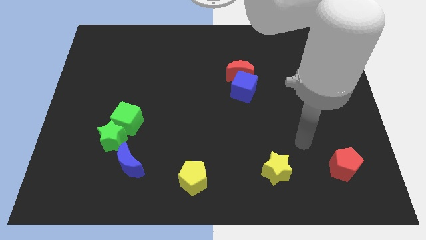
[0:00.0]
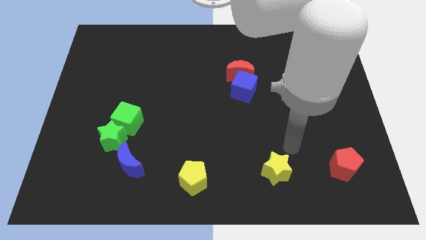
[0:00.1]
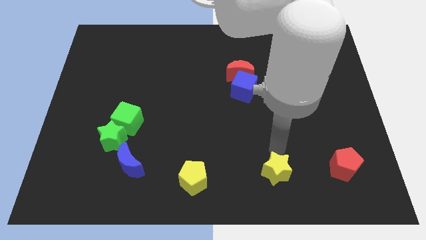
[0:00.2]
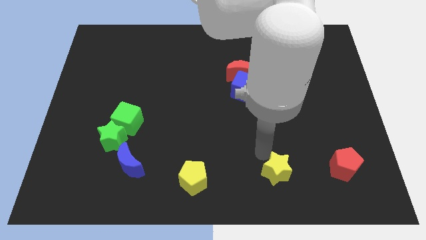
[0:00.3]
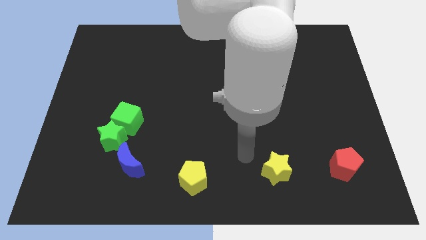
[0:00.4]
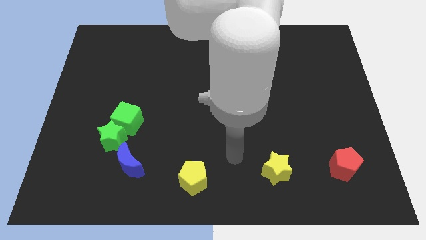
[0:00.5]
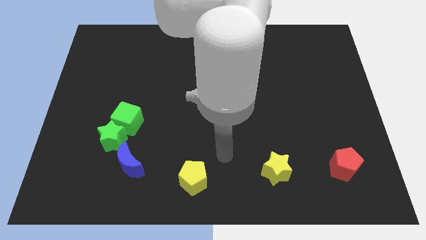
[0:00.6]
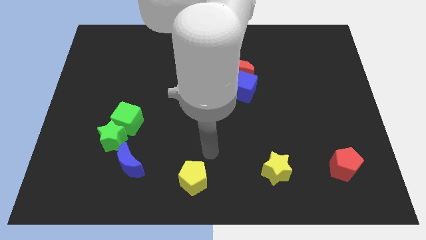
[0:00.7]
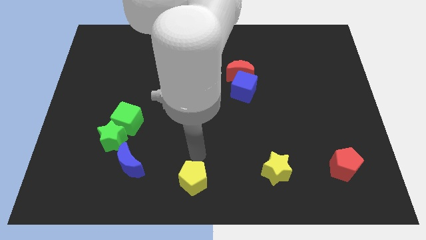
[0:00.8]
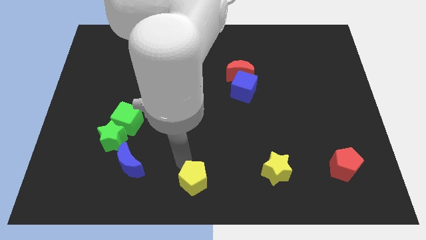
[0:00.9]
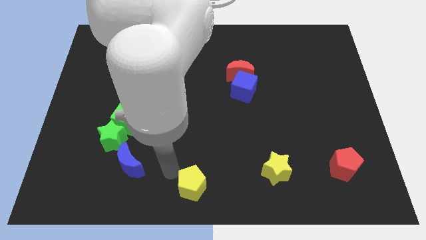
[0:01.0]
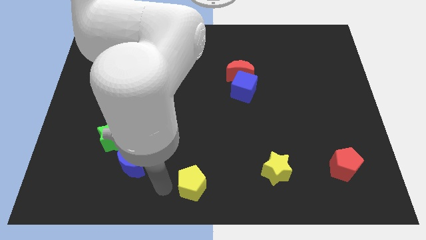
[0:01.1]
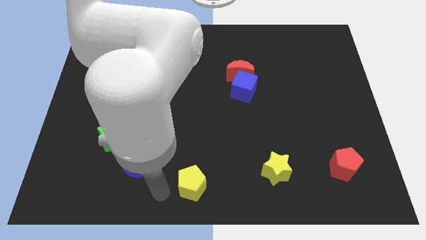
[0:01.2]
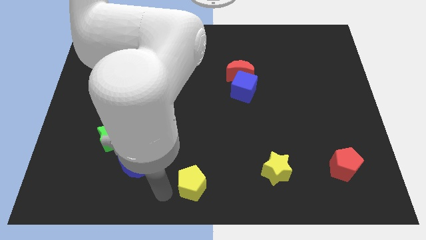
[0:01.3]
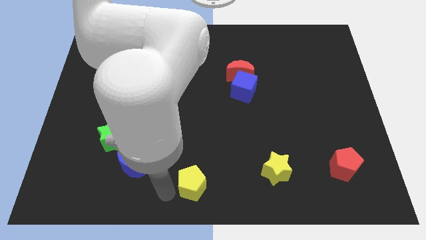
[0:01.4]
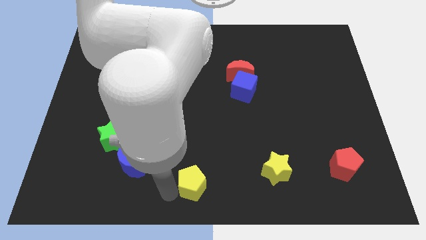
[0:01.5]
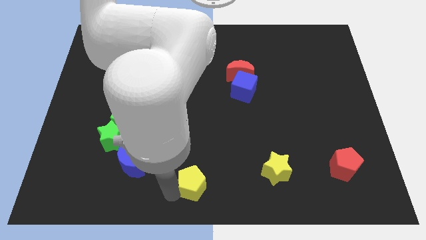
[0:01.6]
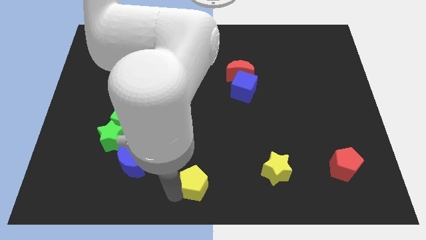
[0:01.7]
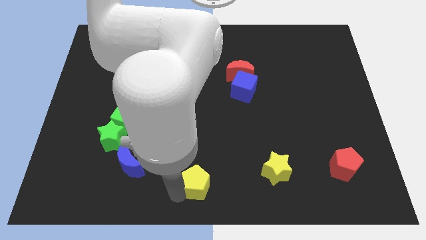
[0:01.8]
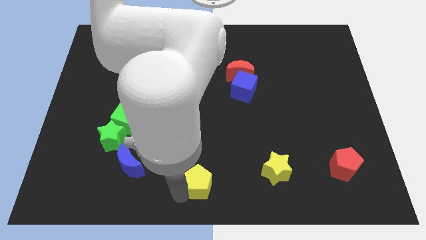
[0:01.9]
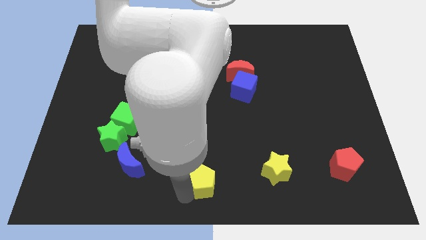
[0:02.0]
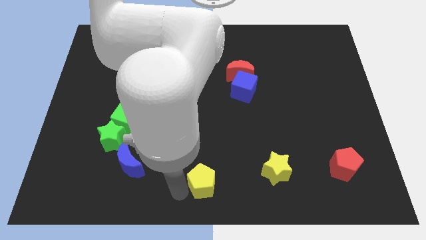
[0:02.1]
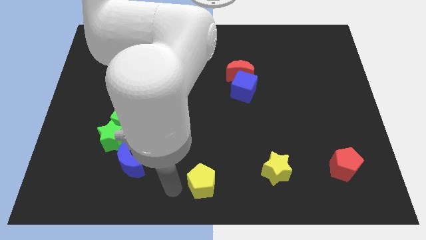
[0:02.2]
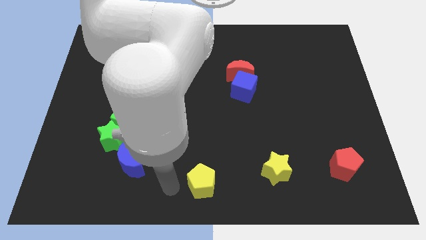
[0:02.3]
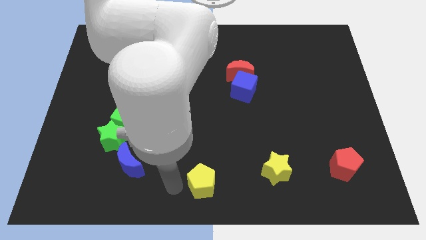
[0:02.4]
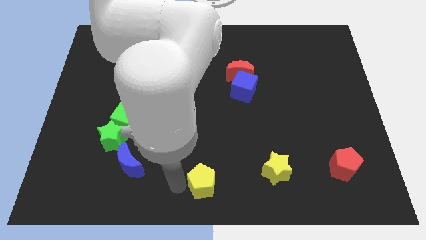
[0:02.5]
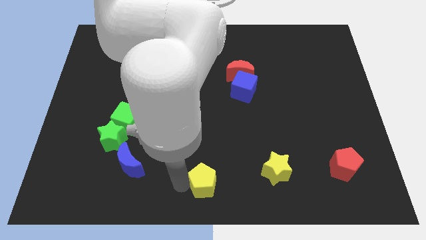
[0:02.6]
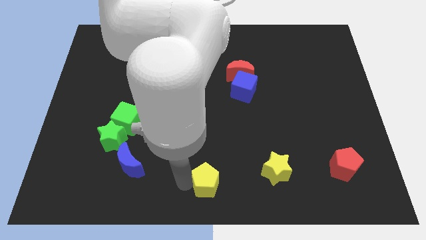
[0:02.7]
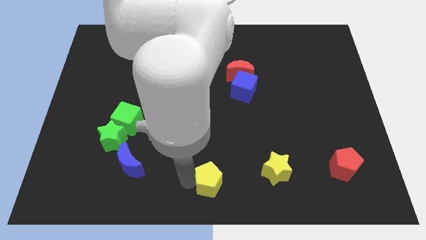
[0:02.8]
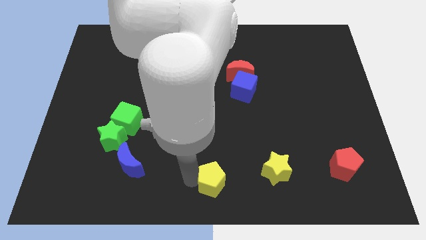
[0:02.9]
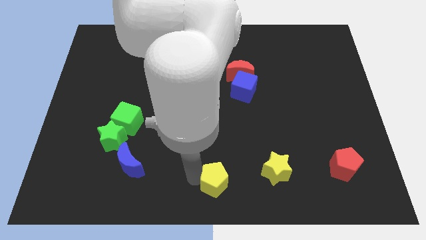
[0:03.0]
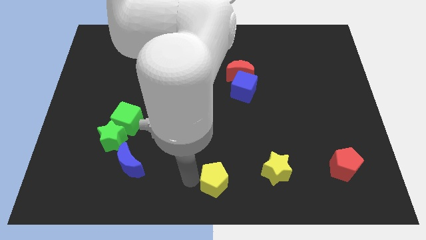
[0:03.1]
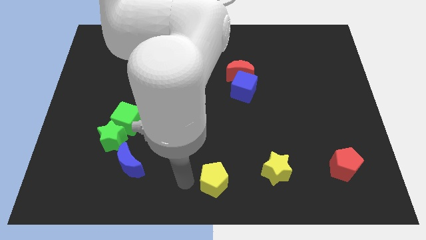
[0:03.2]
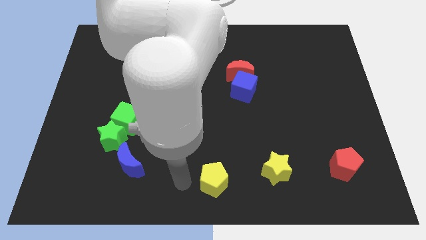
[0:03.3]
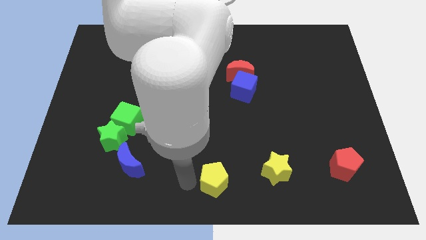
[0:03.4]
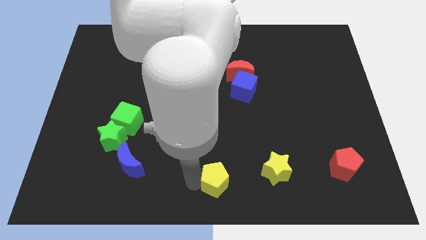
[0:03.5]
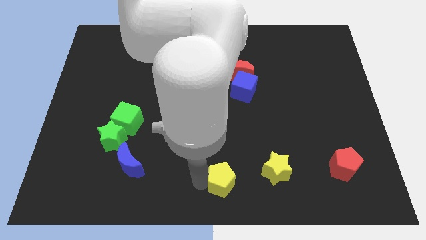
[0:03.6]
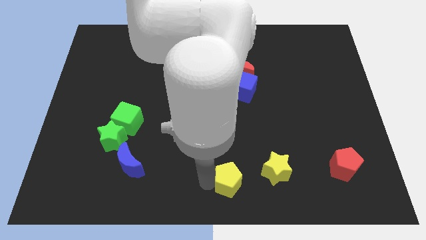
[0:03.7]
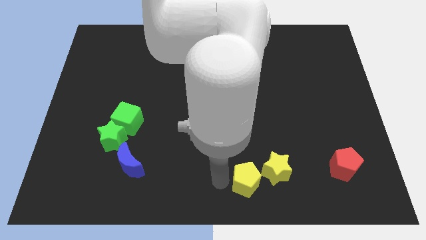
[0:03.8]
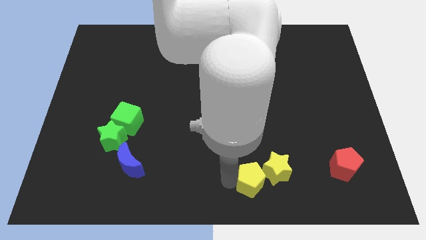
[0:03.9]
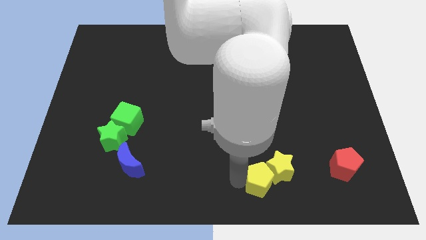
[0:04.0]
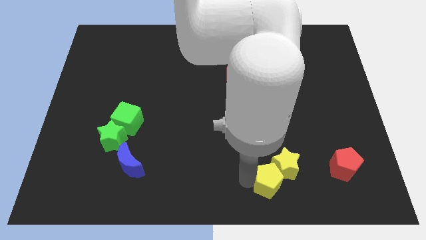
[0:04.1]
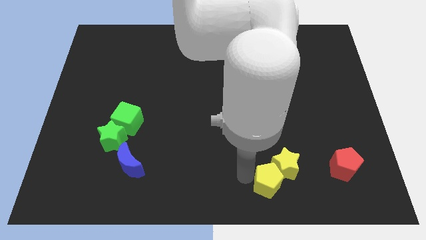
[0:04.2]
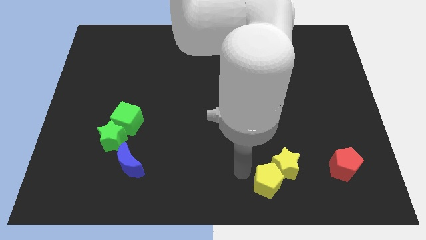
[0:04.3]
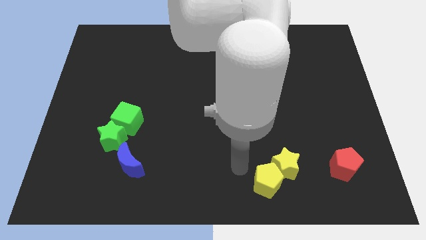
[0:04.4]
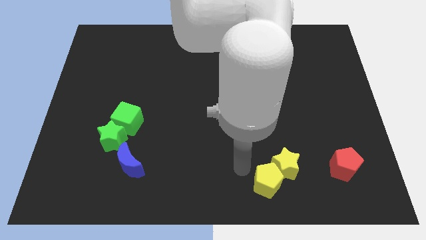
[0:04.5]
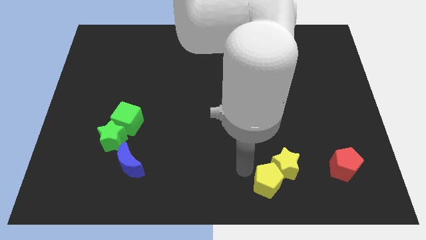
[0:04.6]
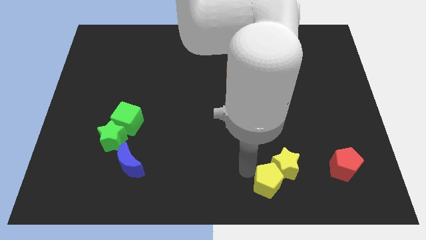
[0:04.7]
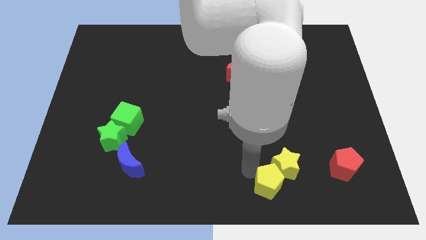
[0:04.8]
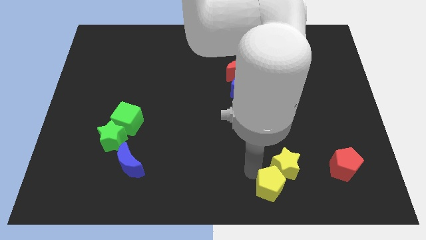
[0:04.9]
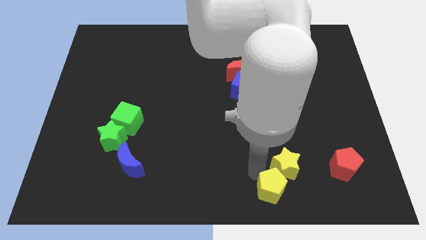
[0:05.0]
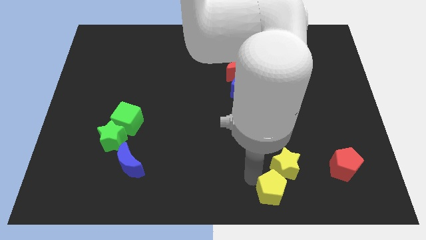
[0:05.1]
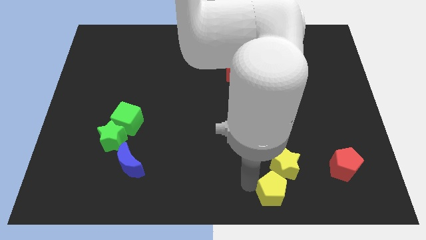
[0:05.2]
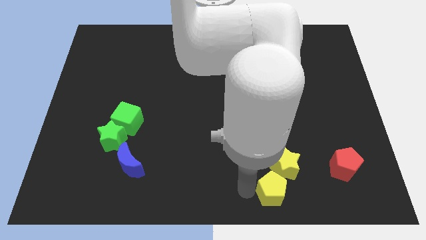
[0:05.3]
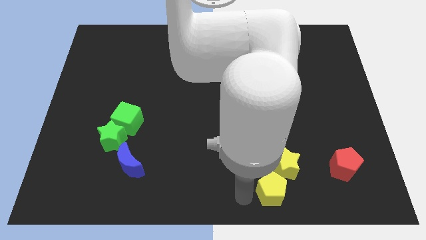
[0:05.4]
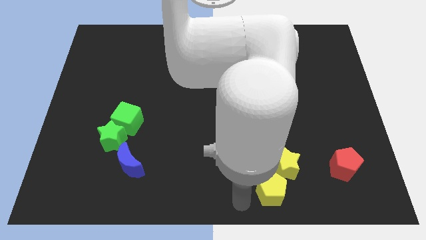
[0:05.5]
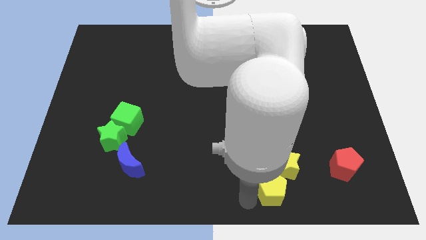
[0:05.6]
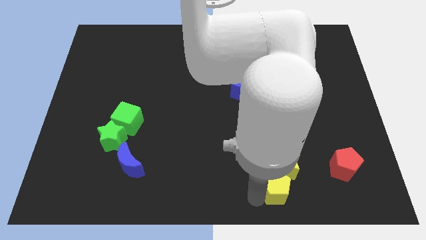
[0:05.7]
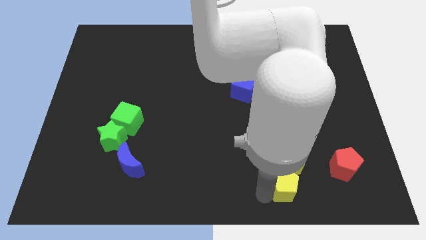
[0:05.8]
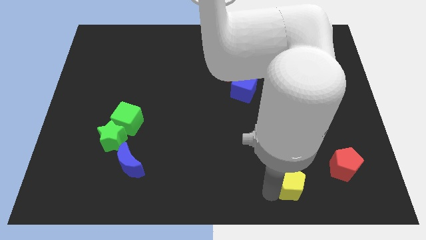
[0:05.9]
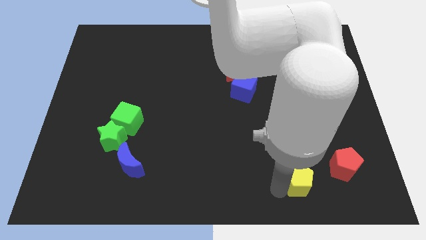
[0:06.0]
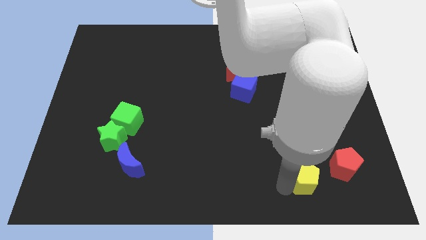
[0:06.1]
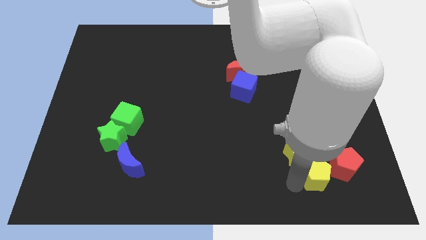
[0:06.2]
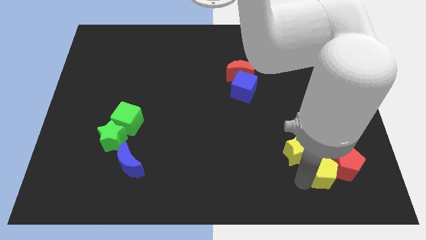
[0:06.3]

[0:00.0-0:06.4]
move the yellow pentagon next to the red pentagon

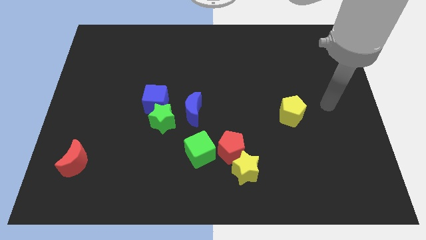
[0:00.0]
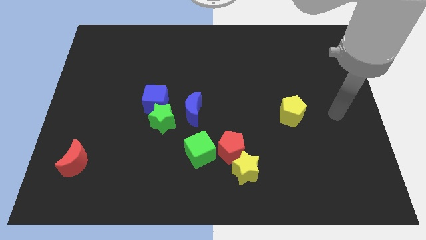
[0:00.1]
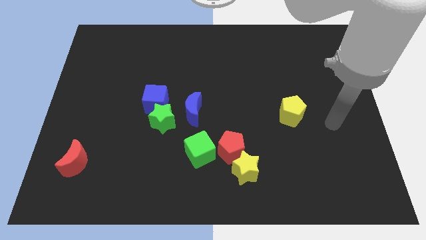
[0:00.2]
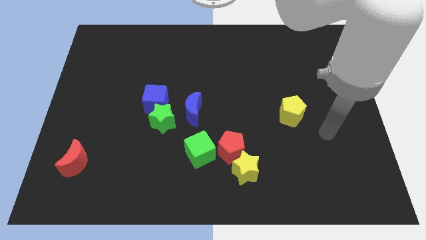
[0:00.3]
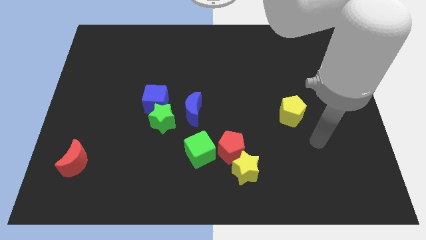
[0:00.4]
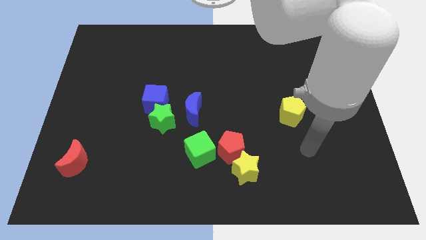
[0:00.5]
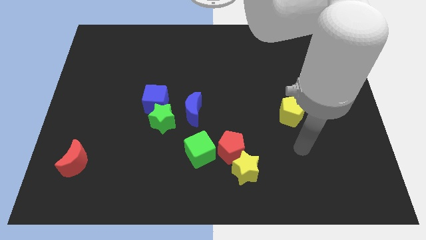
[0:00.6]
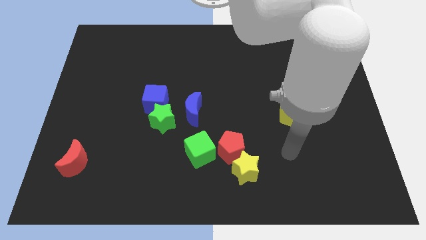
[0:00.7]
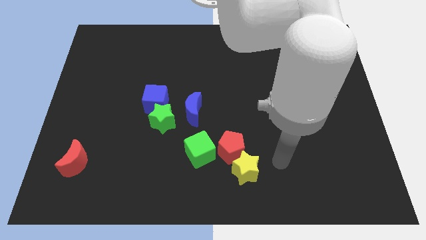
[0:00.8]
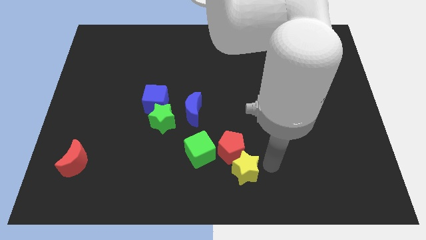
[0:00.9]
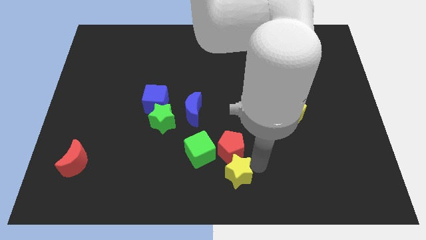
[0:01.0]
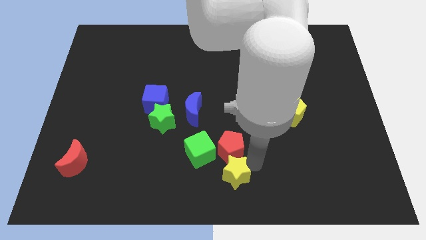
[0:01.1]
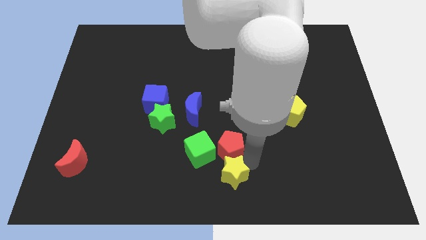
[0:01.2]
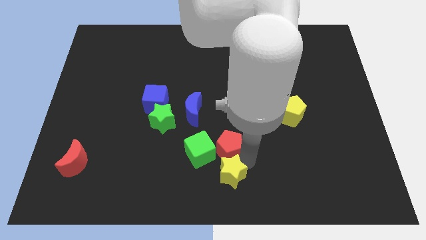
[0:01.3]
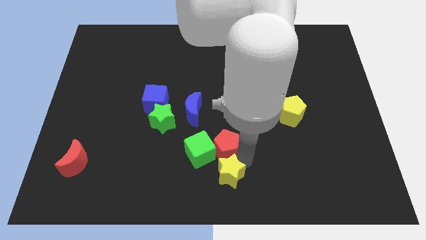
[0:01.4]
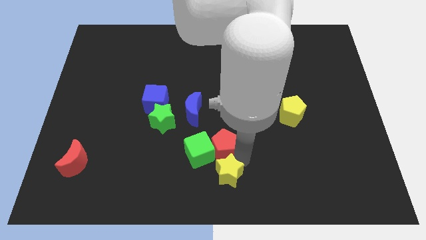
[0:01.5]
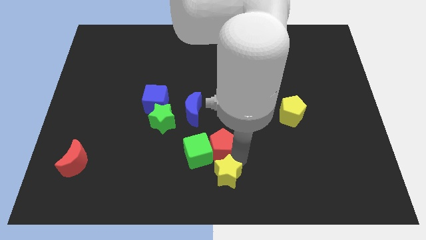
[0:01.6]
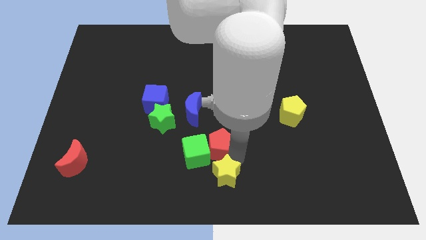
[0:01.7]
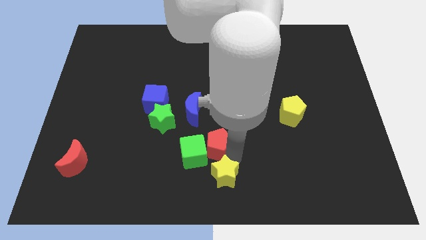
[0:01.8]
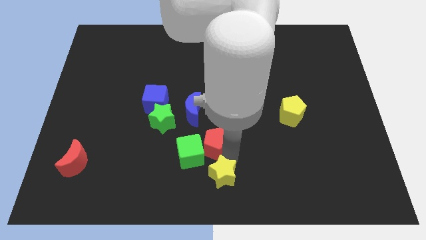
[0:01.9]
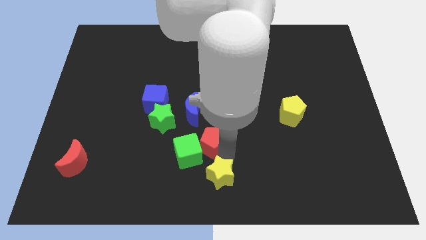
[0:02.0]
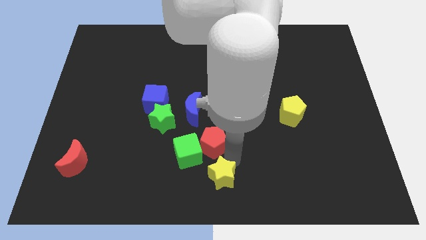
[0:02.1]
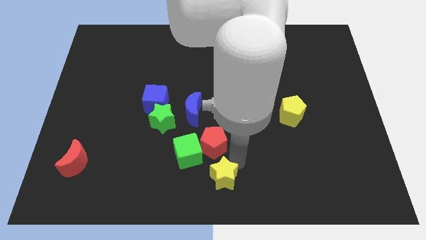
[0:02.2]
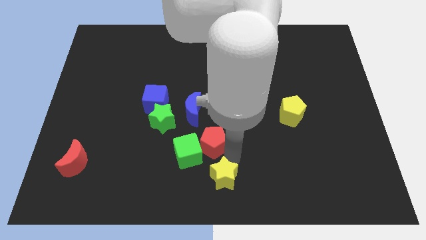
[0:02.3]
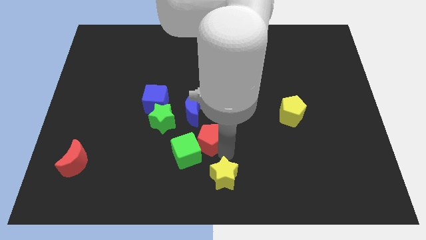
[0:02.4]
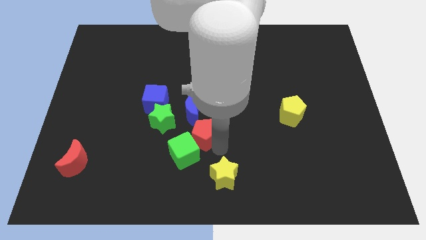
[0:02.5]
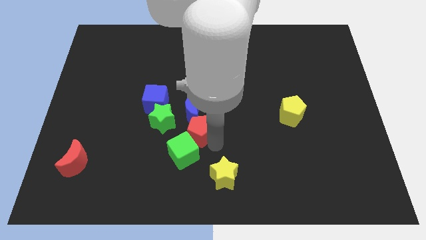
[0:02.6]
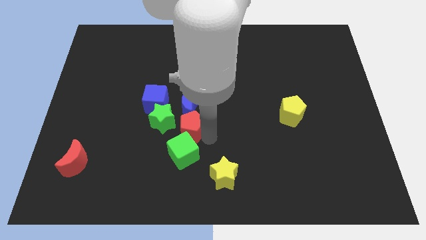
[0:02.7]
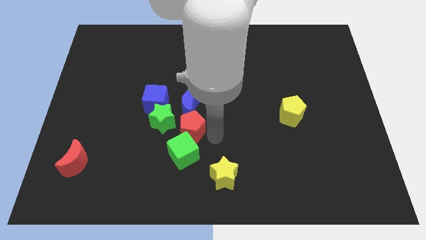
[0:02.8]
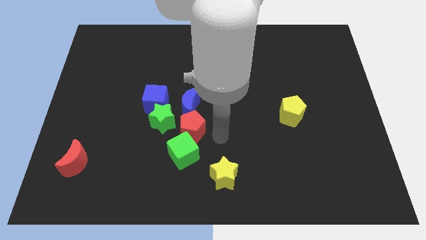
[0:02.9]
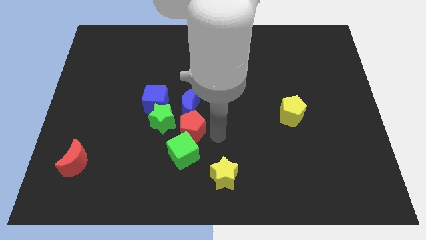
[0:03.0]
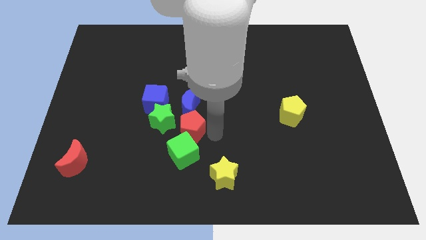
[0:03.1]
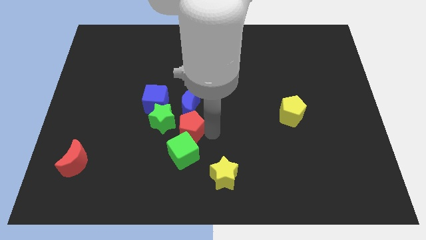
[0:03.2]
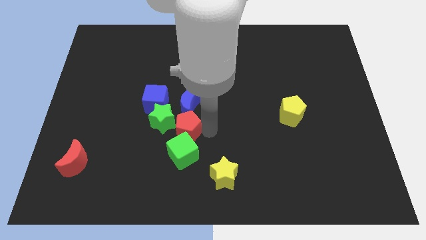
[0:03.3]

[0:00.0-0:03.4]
put the red pentagon towards the green star
